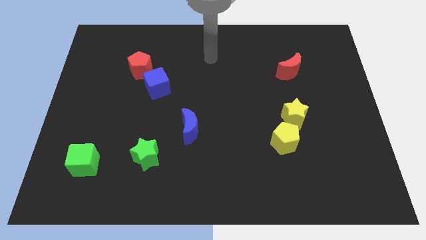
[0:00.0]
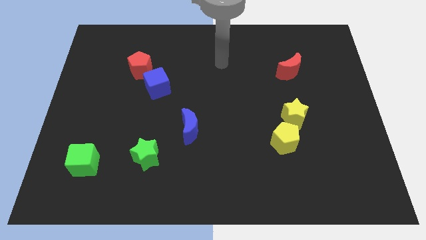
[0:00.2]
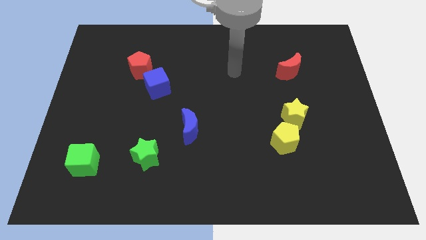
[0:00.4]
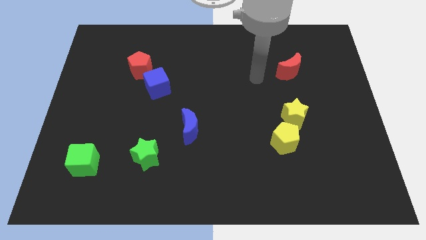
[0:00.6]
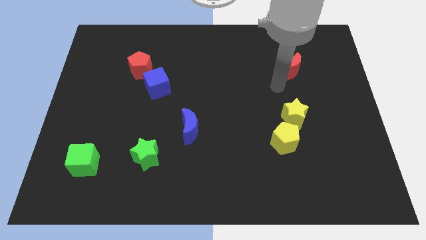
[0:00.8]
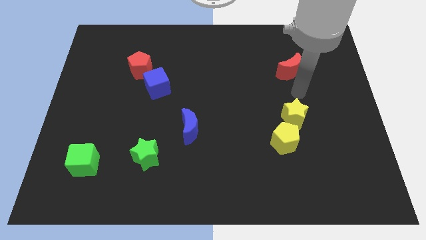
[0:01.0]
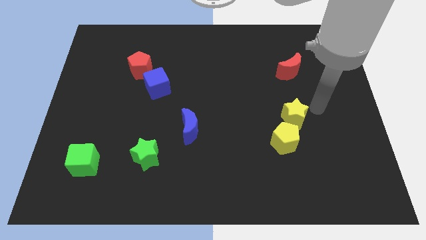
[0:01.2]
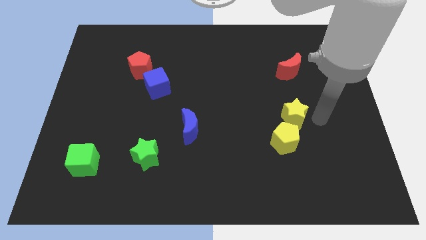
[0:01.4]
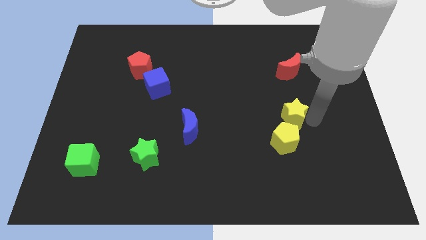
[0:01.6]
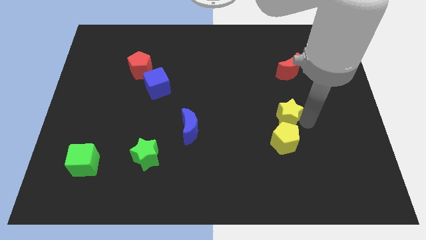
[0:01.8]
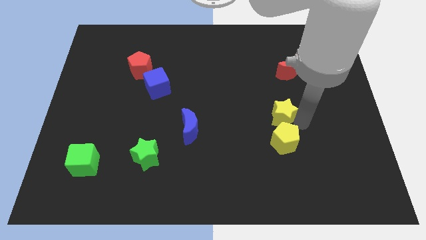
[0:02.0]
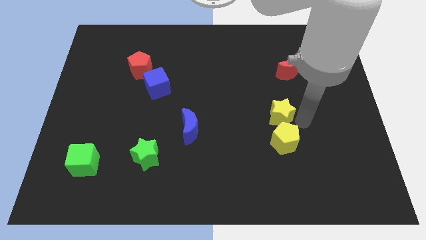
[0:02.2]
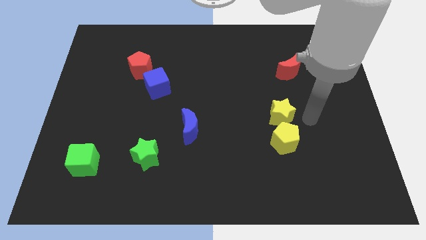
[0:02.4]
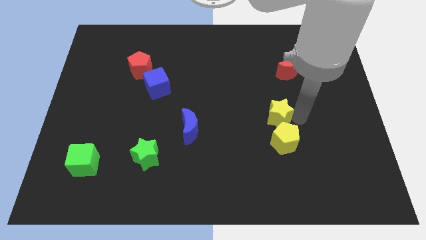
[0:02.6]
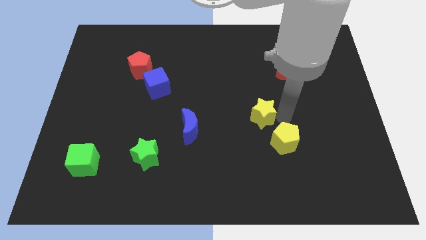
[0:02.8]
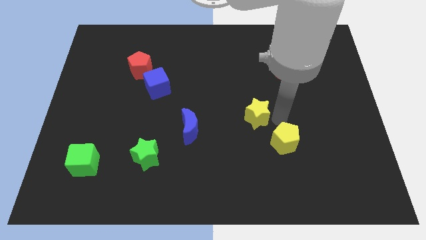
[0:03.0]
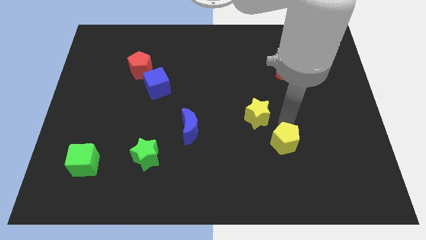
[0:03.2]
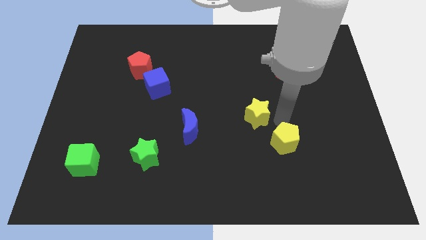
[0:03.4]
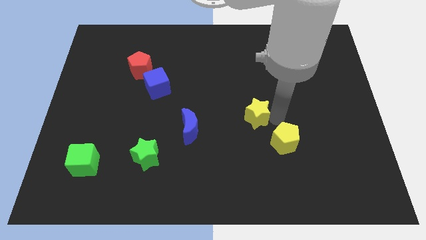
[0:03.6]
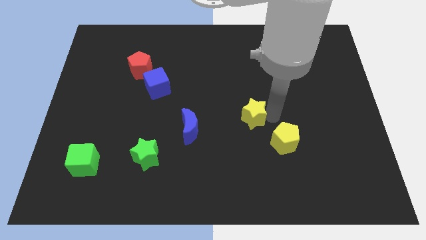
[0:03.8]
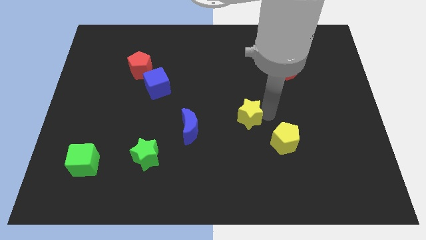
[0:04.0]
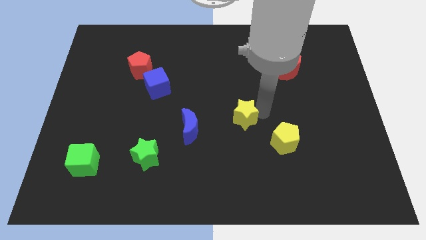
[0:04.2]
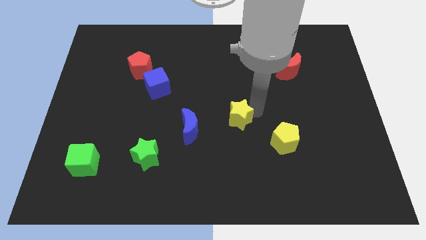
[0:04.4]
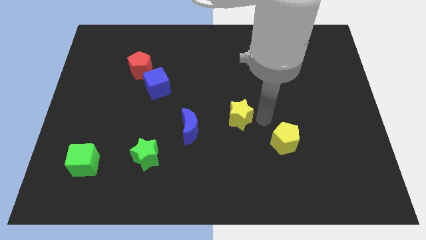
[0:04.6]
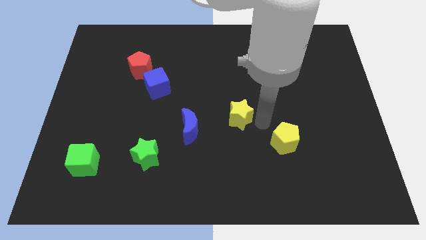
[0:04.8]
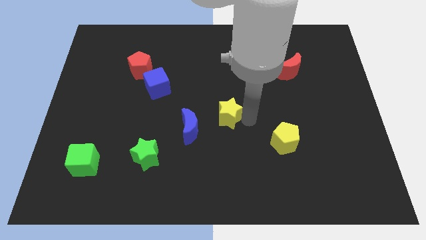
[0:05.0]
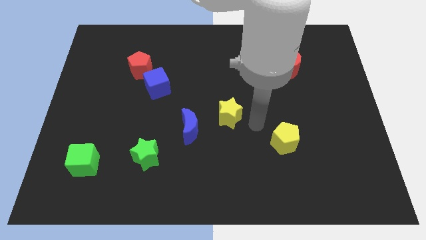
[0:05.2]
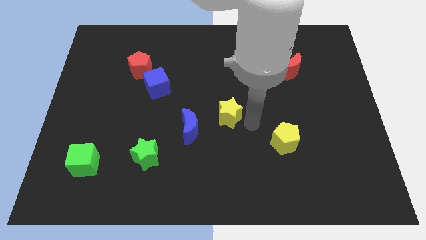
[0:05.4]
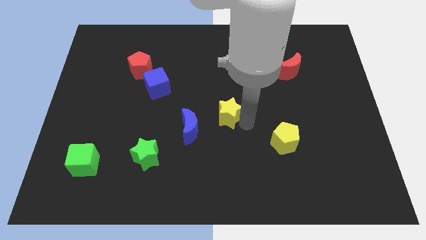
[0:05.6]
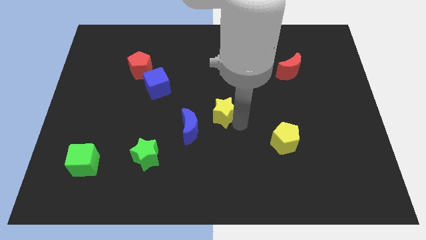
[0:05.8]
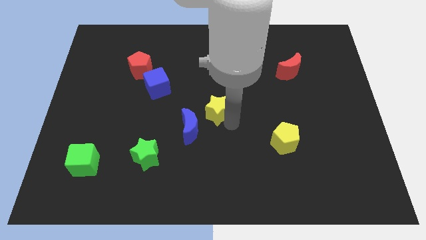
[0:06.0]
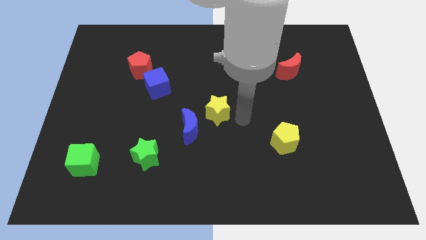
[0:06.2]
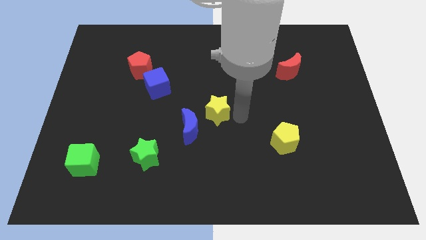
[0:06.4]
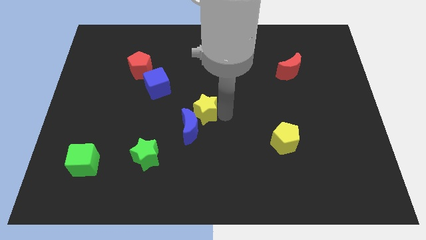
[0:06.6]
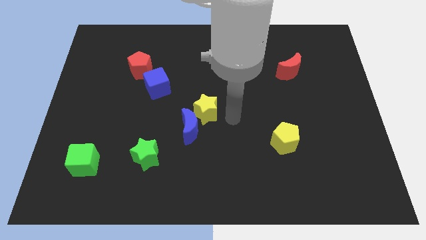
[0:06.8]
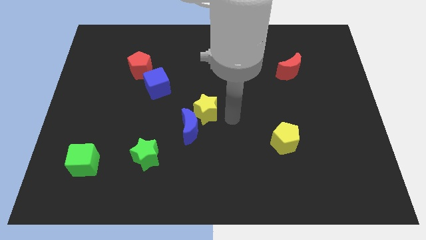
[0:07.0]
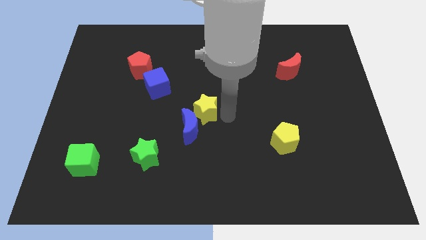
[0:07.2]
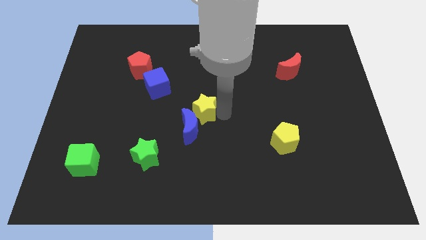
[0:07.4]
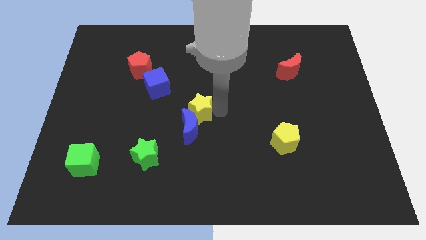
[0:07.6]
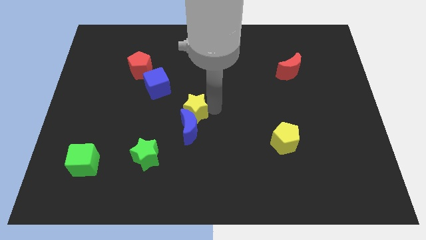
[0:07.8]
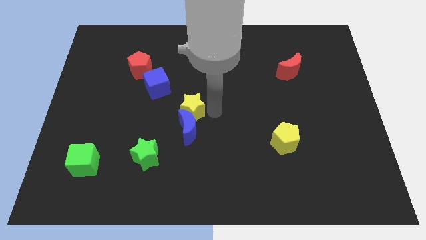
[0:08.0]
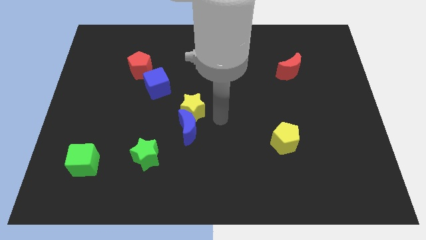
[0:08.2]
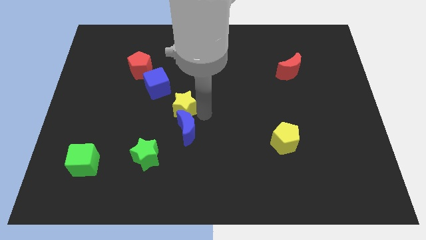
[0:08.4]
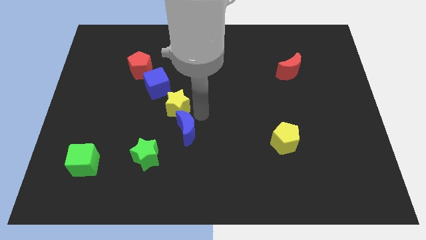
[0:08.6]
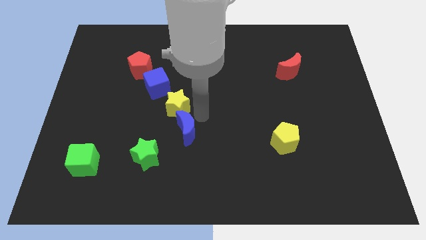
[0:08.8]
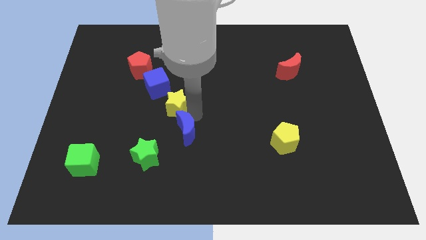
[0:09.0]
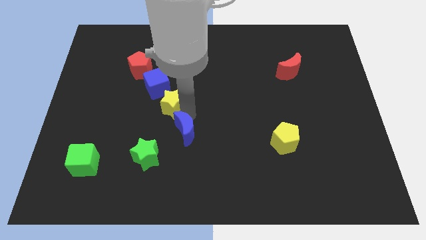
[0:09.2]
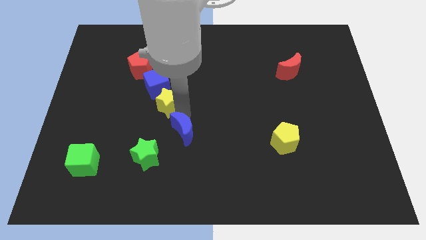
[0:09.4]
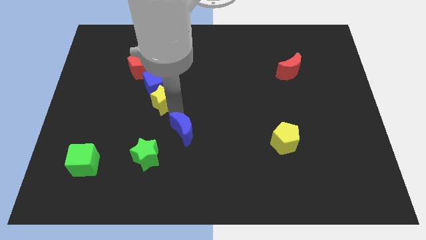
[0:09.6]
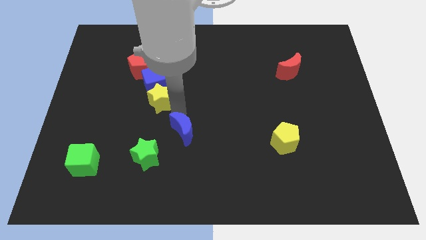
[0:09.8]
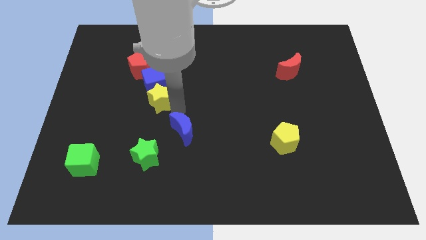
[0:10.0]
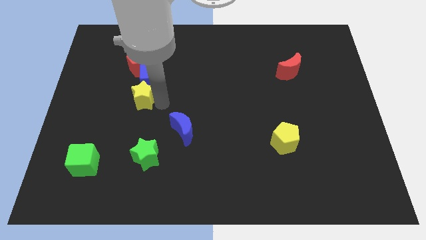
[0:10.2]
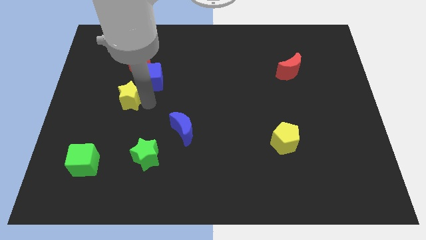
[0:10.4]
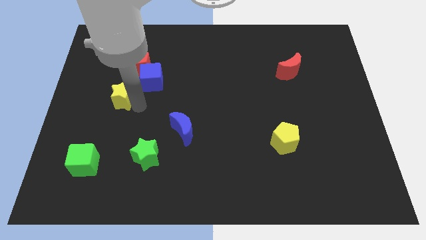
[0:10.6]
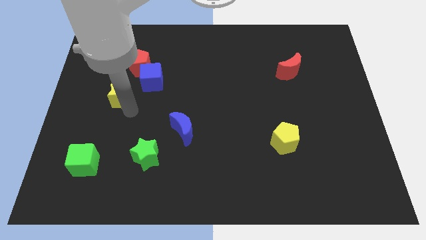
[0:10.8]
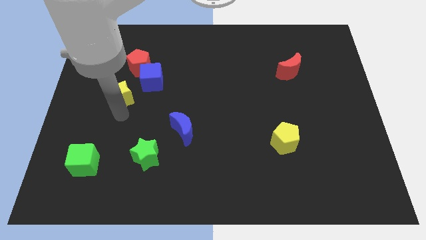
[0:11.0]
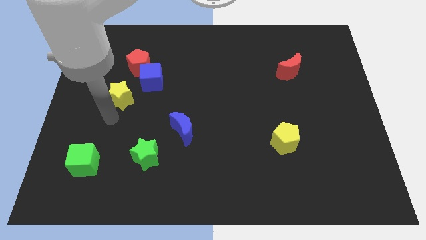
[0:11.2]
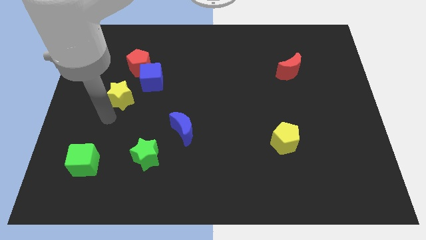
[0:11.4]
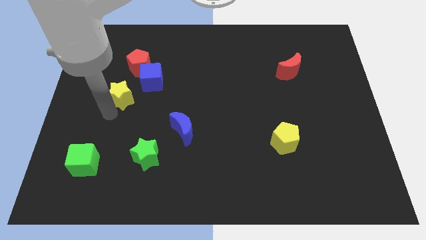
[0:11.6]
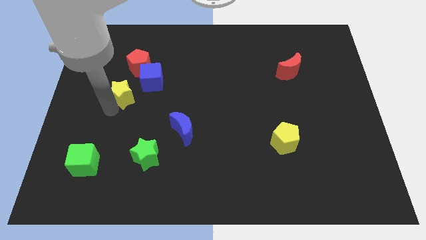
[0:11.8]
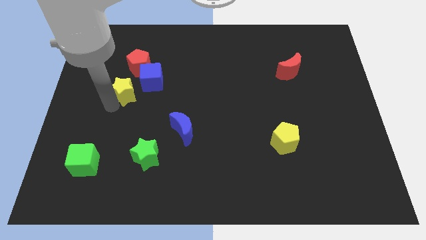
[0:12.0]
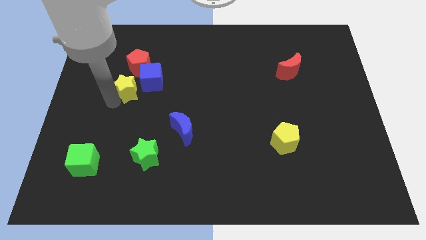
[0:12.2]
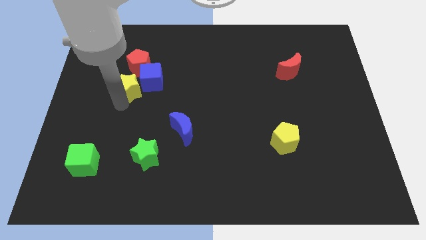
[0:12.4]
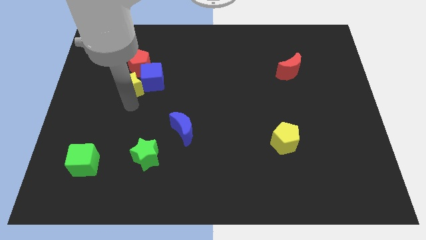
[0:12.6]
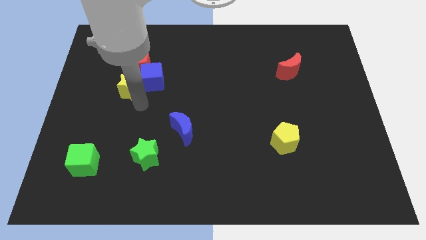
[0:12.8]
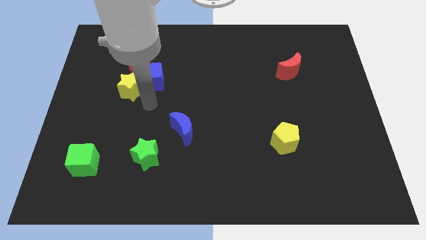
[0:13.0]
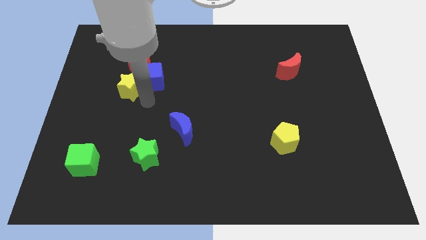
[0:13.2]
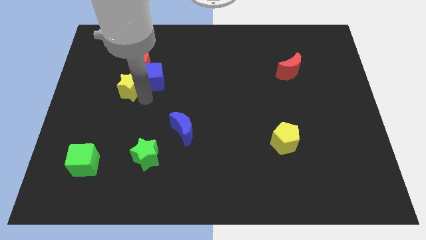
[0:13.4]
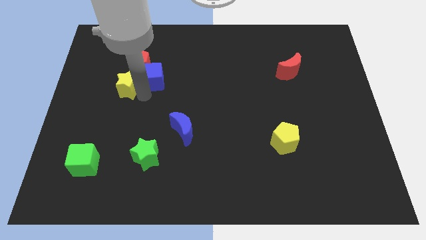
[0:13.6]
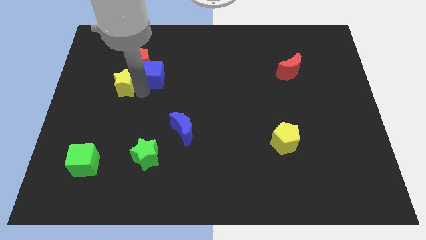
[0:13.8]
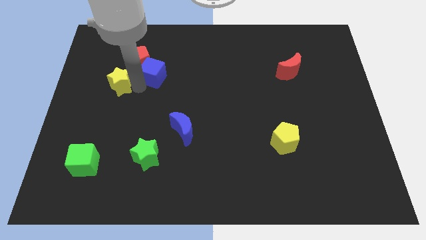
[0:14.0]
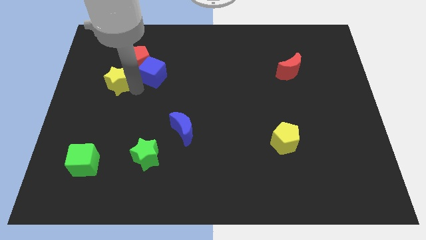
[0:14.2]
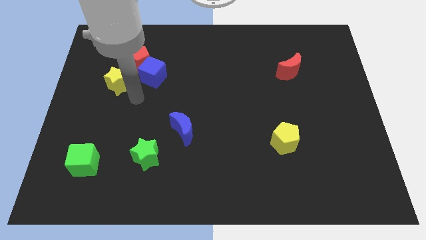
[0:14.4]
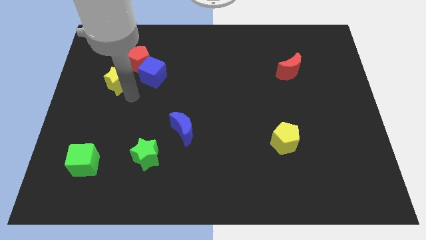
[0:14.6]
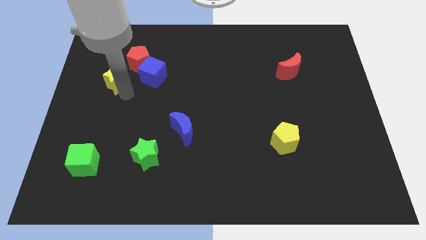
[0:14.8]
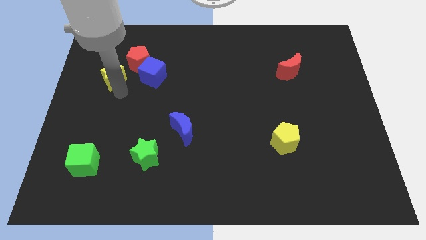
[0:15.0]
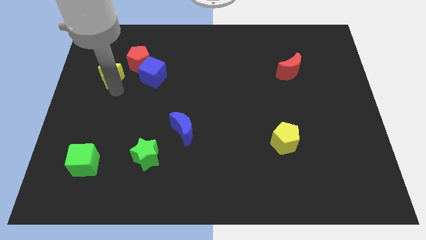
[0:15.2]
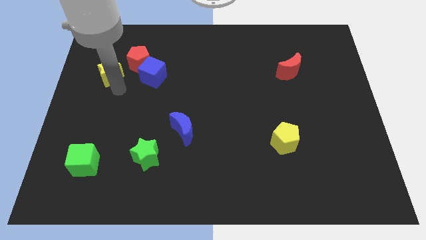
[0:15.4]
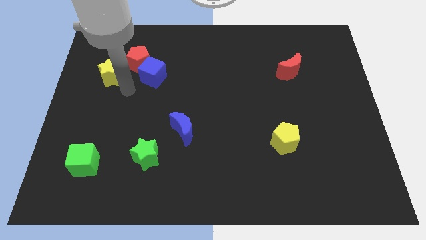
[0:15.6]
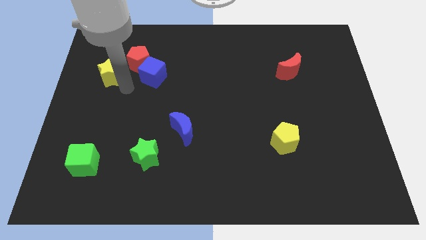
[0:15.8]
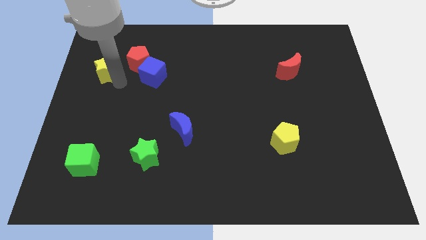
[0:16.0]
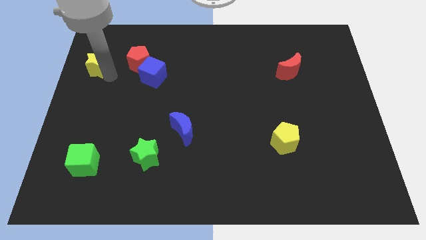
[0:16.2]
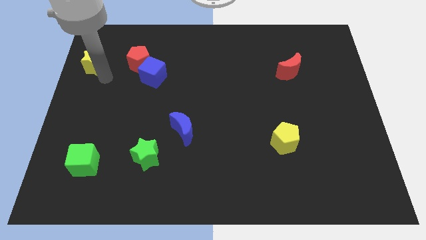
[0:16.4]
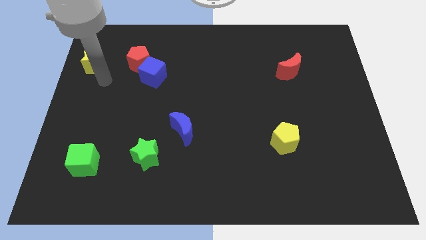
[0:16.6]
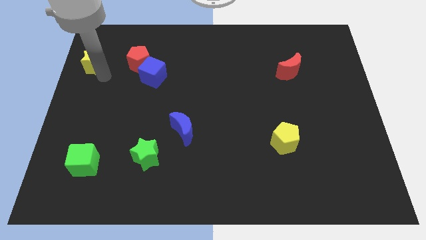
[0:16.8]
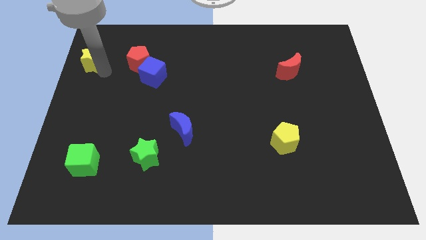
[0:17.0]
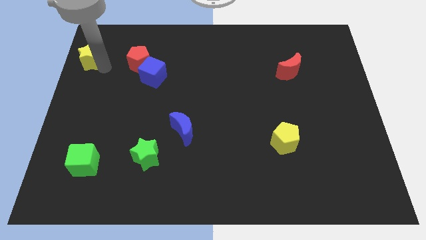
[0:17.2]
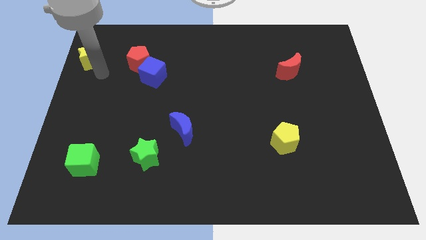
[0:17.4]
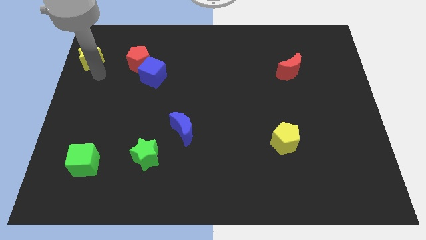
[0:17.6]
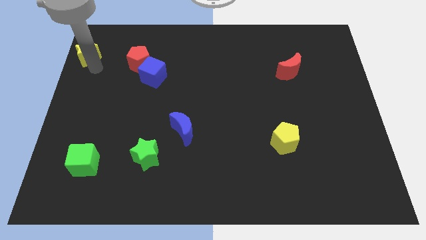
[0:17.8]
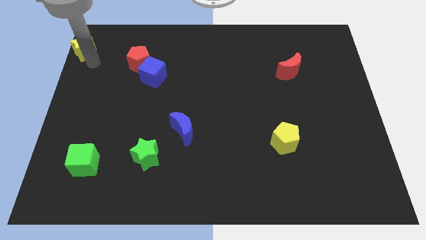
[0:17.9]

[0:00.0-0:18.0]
push the yellow star to the top left
